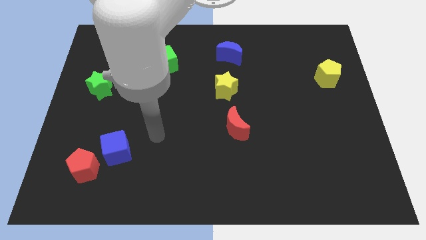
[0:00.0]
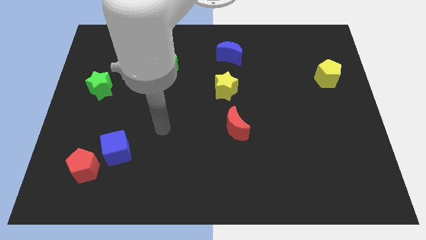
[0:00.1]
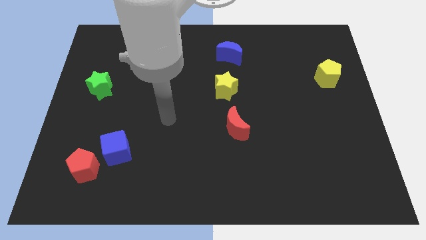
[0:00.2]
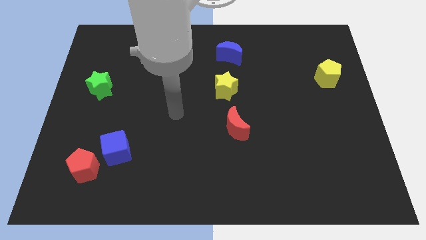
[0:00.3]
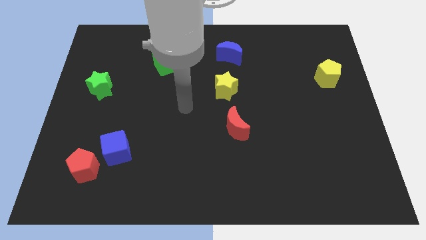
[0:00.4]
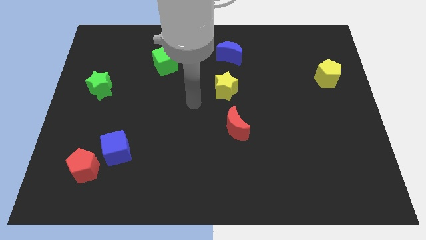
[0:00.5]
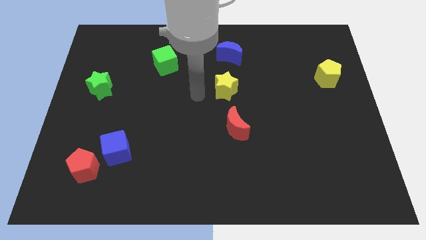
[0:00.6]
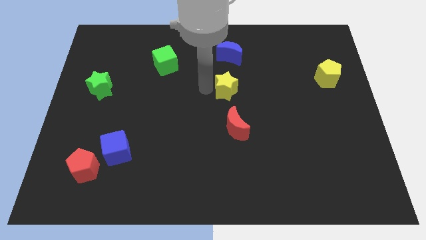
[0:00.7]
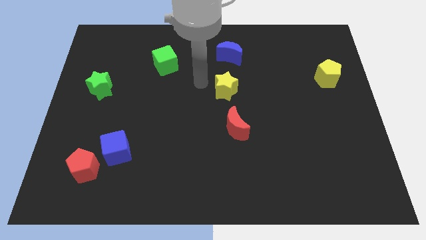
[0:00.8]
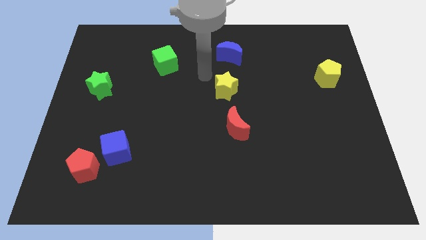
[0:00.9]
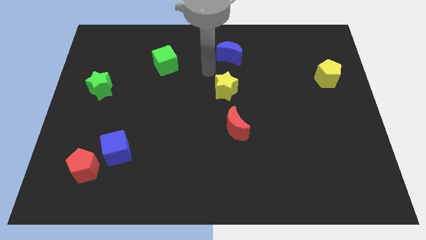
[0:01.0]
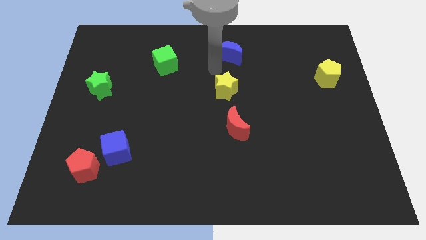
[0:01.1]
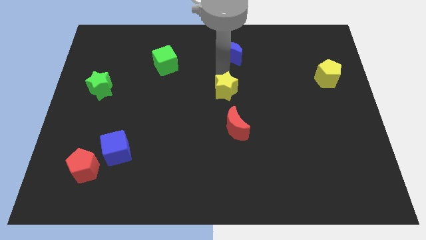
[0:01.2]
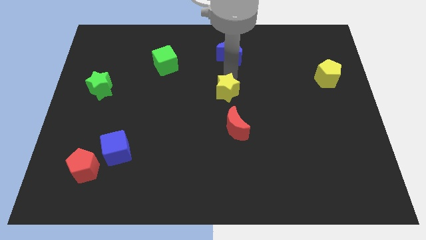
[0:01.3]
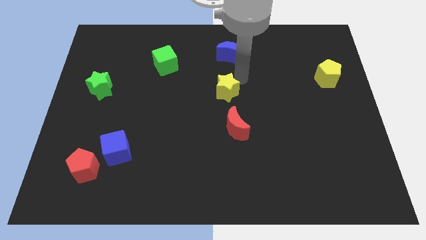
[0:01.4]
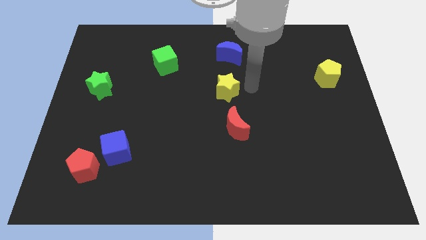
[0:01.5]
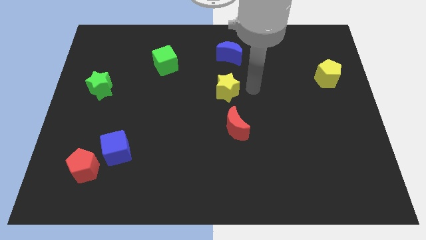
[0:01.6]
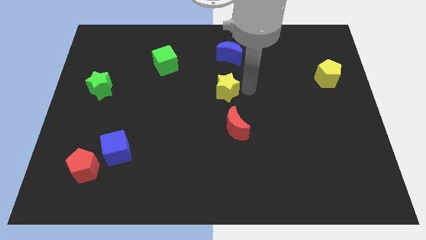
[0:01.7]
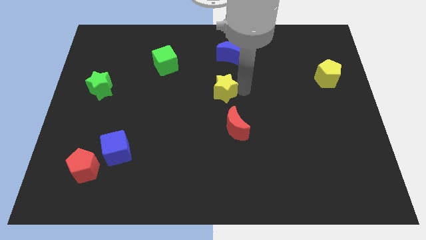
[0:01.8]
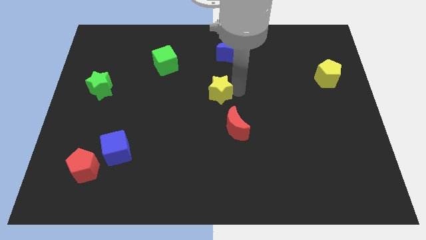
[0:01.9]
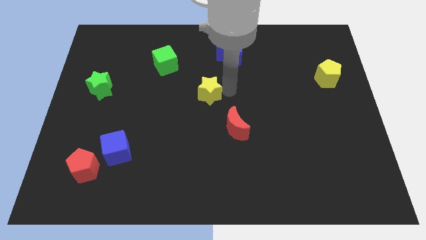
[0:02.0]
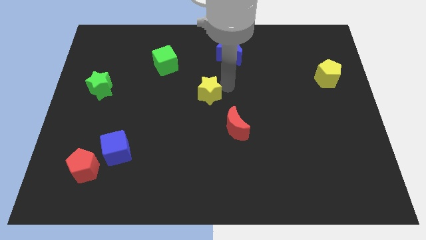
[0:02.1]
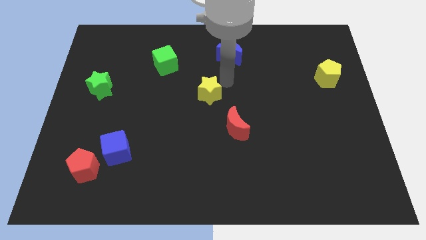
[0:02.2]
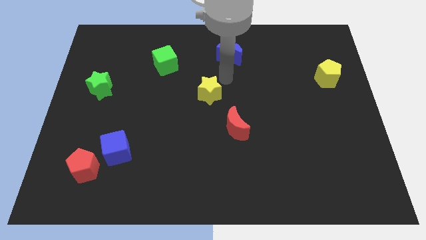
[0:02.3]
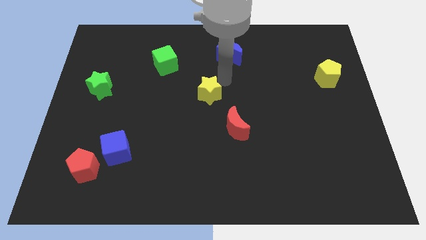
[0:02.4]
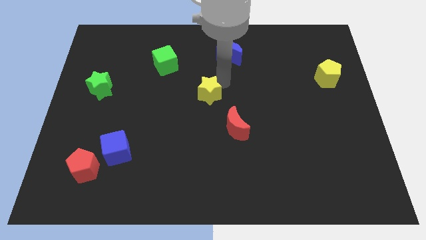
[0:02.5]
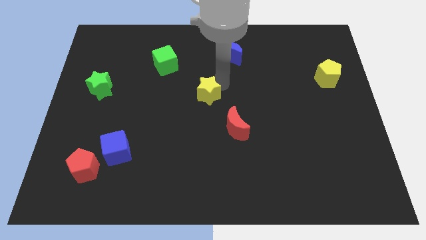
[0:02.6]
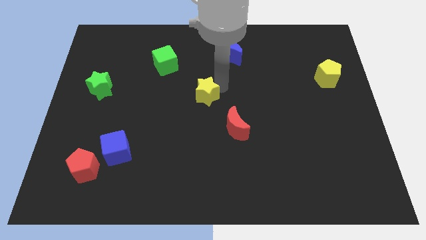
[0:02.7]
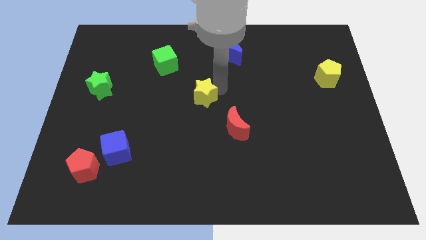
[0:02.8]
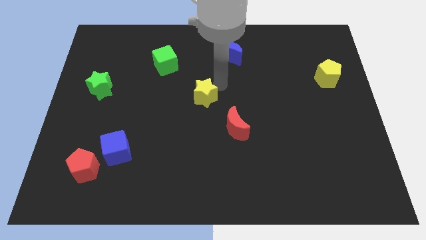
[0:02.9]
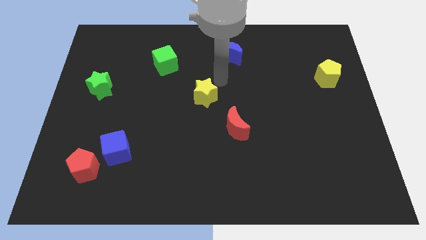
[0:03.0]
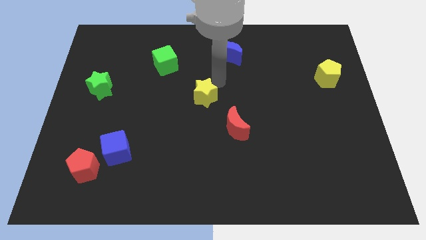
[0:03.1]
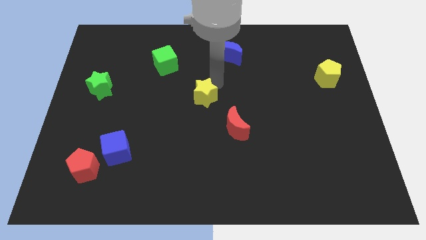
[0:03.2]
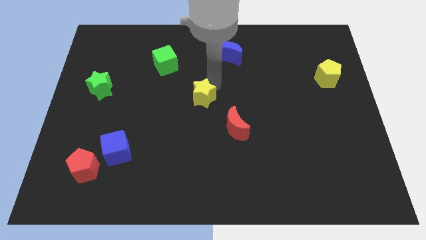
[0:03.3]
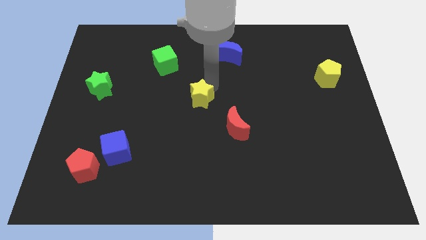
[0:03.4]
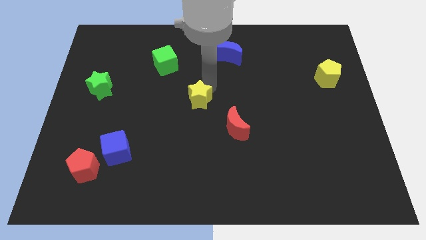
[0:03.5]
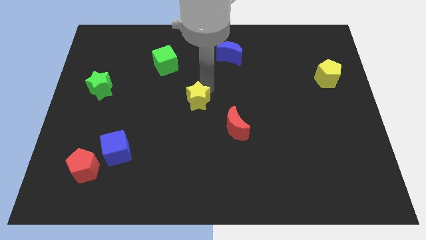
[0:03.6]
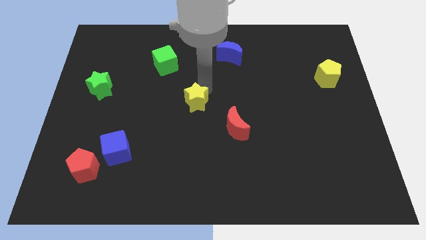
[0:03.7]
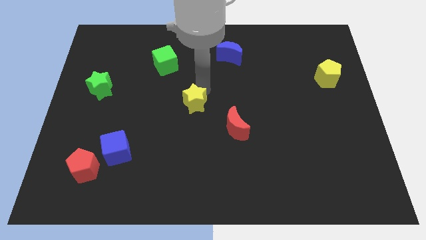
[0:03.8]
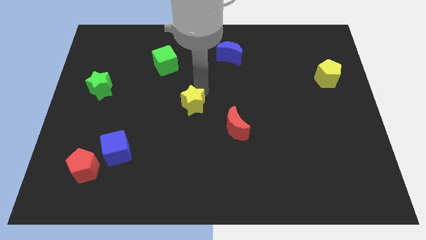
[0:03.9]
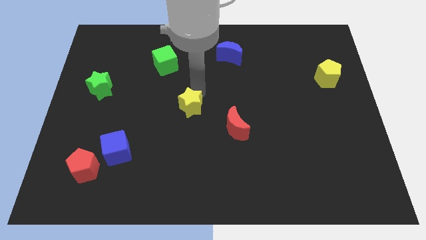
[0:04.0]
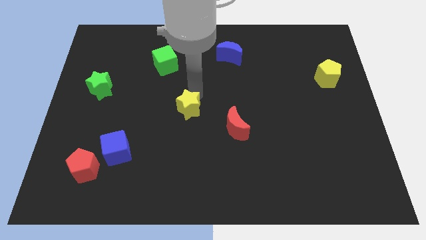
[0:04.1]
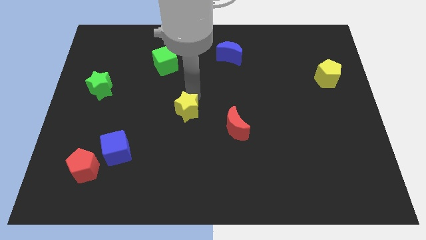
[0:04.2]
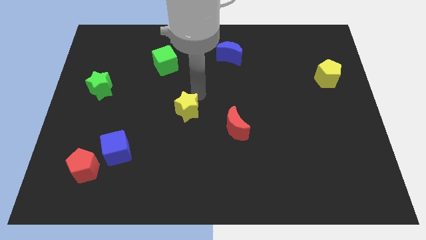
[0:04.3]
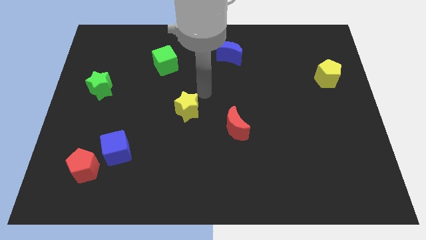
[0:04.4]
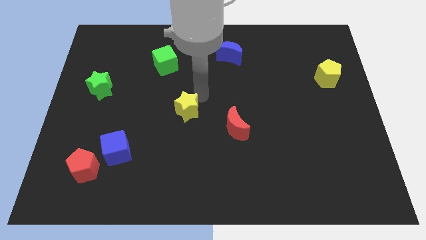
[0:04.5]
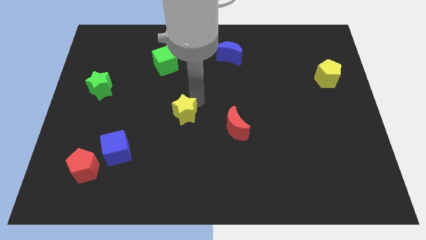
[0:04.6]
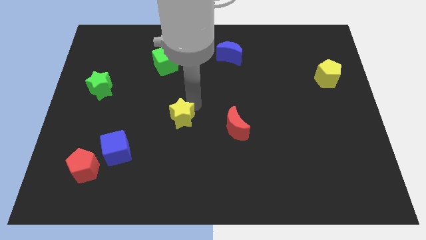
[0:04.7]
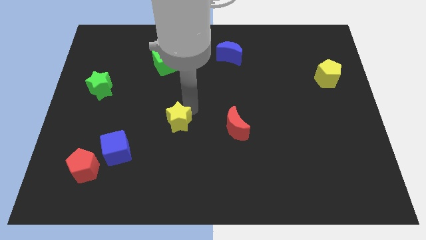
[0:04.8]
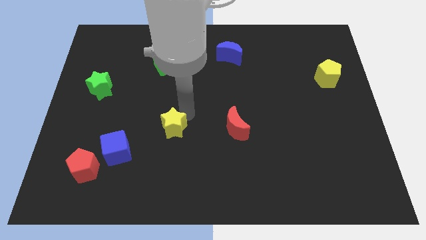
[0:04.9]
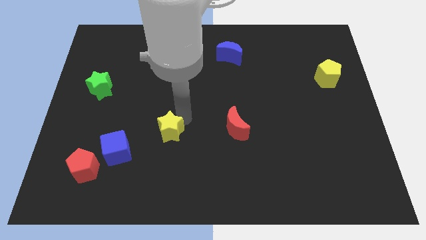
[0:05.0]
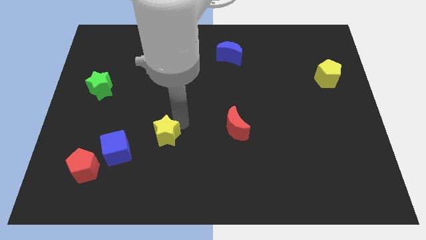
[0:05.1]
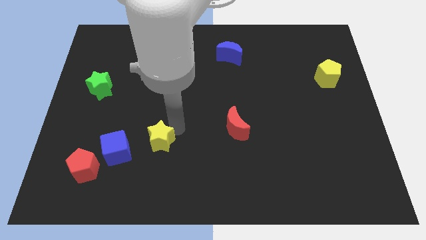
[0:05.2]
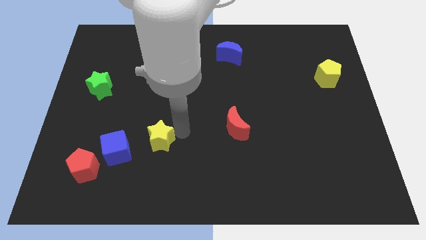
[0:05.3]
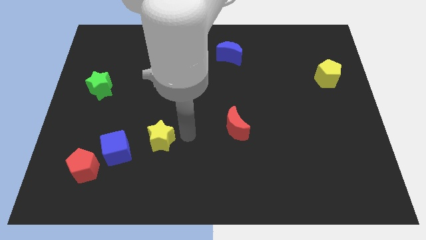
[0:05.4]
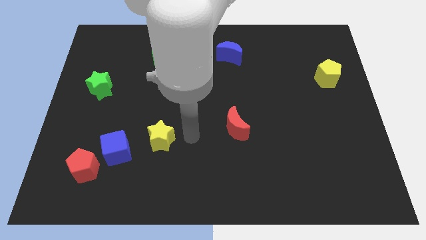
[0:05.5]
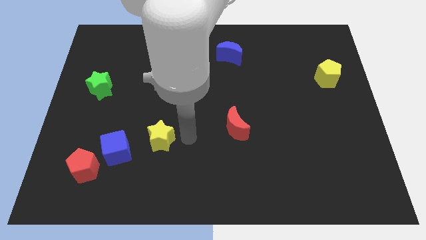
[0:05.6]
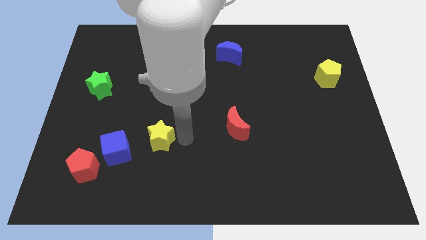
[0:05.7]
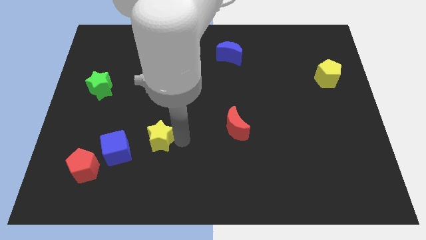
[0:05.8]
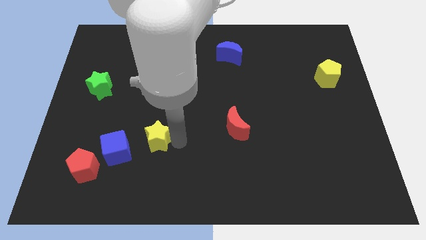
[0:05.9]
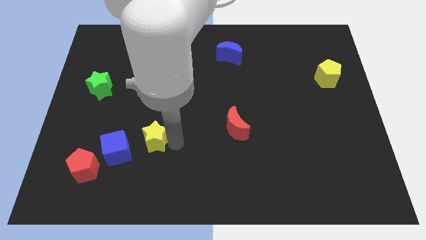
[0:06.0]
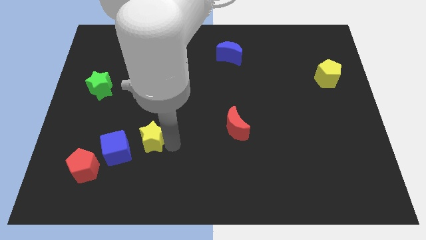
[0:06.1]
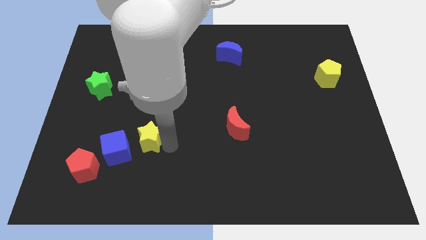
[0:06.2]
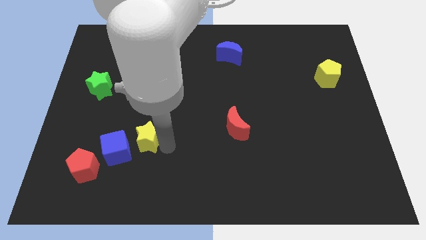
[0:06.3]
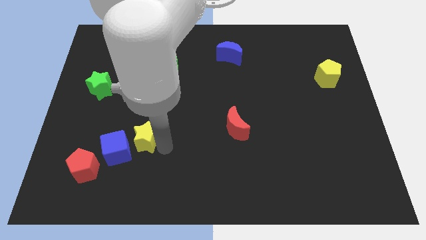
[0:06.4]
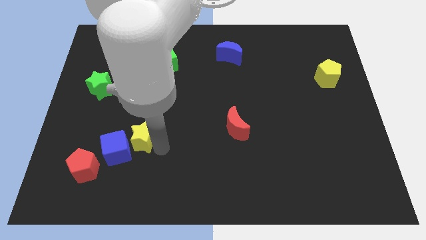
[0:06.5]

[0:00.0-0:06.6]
put the yellow star towards the blue cube
